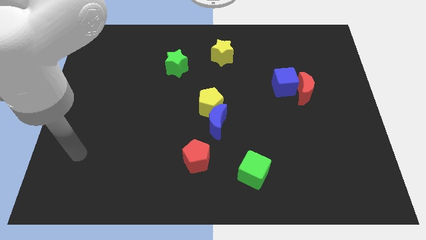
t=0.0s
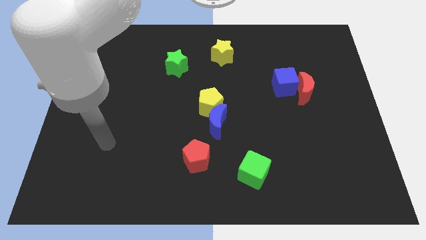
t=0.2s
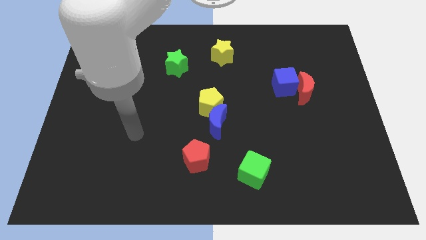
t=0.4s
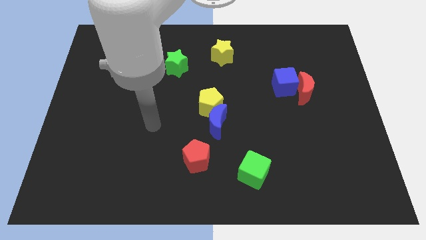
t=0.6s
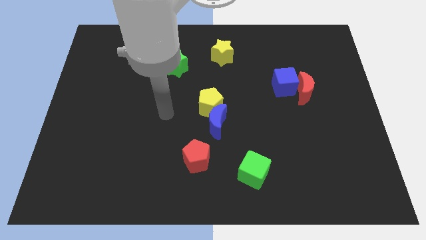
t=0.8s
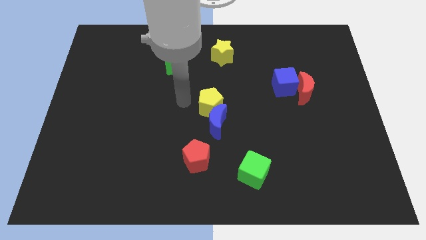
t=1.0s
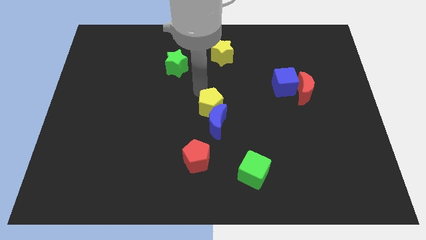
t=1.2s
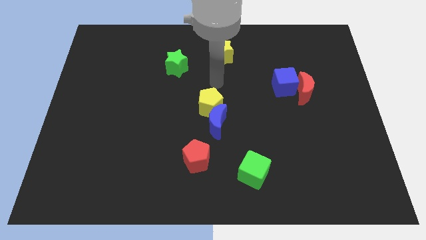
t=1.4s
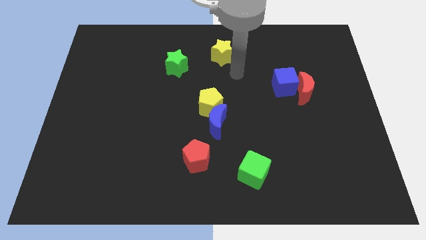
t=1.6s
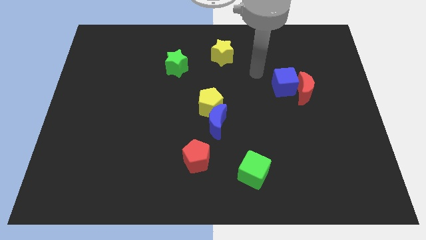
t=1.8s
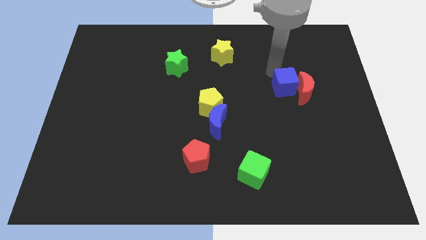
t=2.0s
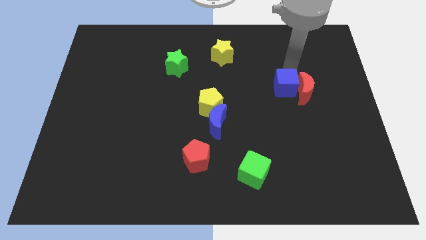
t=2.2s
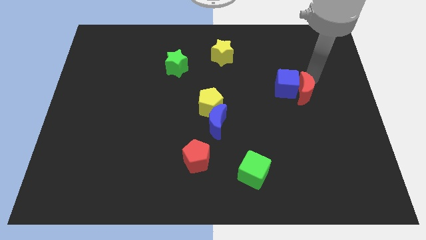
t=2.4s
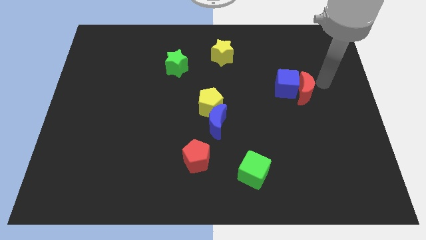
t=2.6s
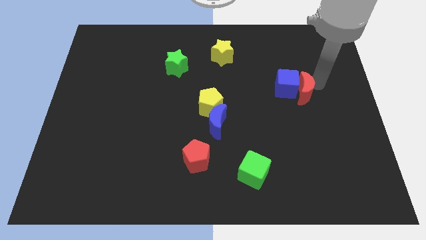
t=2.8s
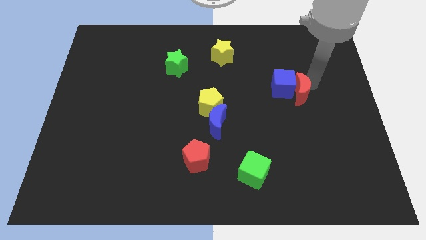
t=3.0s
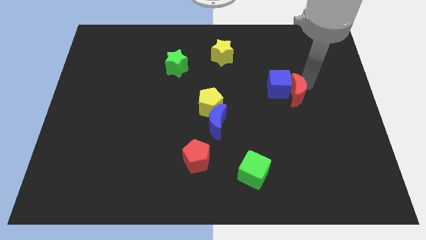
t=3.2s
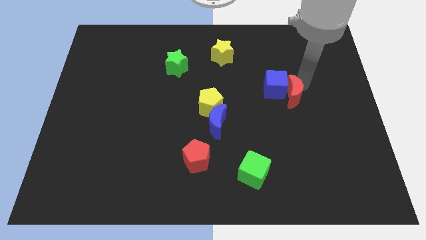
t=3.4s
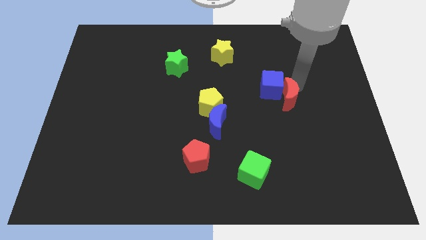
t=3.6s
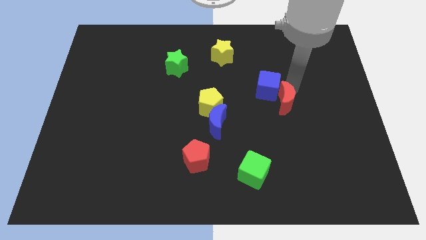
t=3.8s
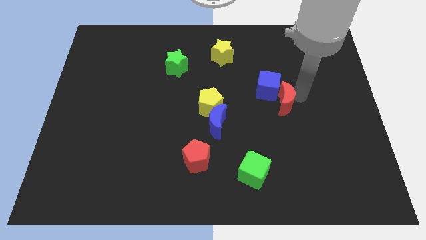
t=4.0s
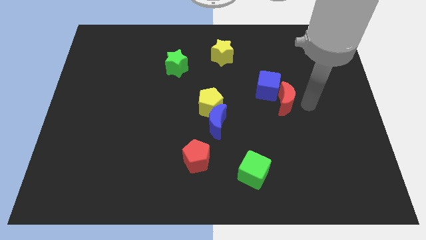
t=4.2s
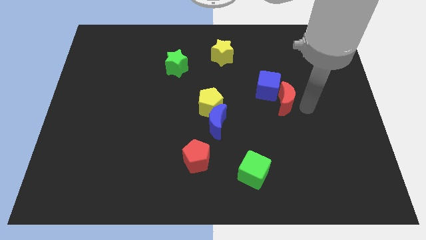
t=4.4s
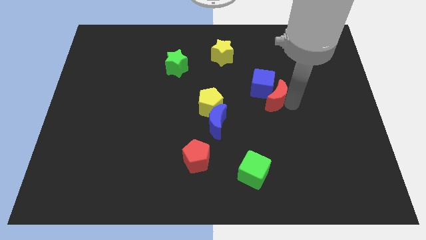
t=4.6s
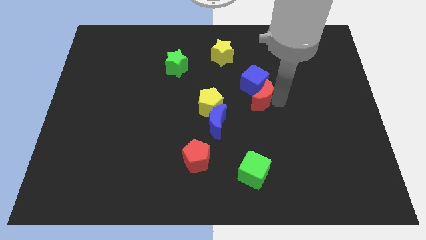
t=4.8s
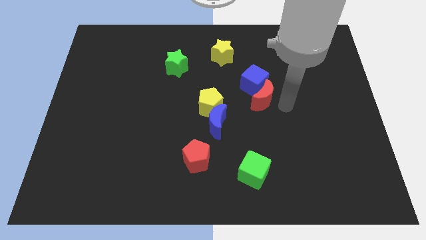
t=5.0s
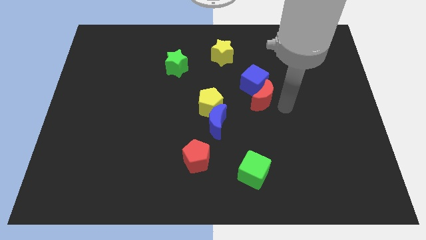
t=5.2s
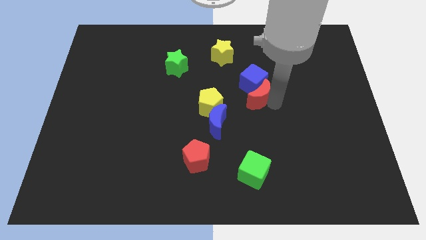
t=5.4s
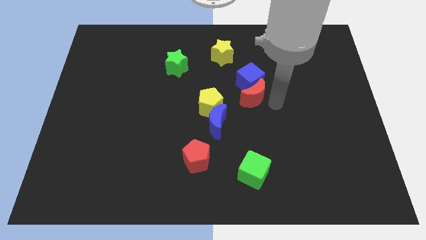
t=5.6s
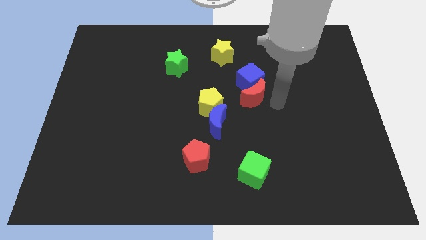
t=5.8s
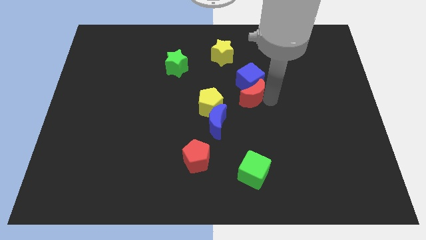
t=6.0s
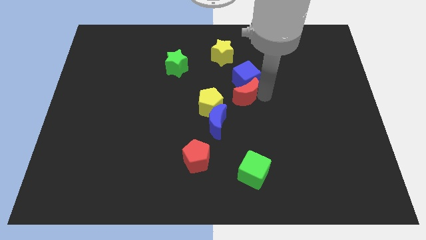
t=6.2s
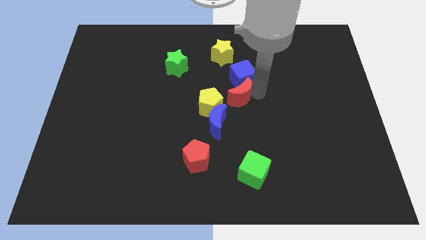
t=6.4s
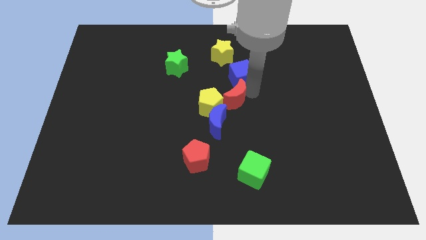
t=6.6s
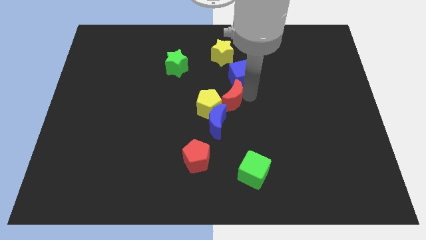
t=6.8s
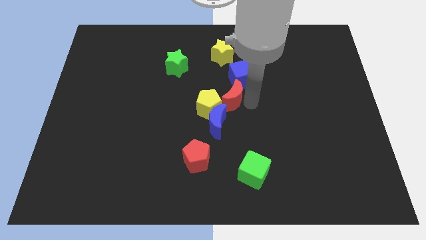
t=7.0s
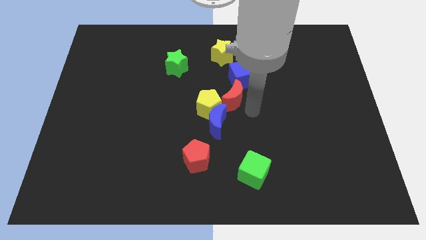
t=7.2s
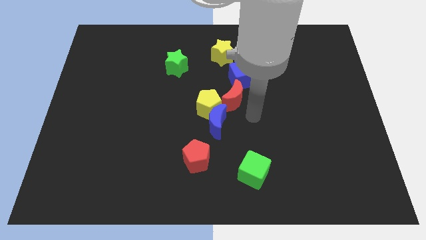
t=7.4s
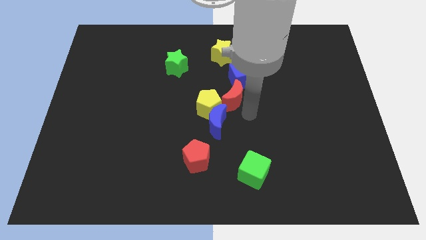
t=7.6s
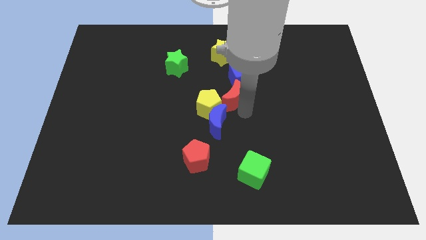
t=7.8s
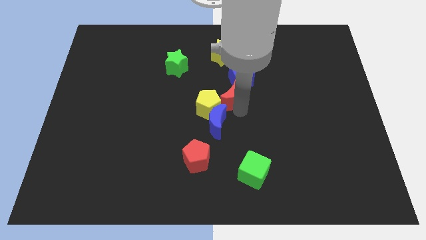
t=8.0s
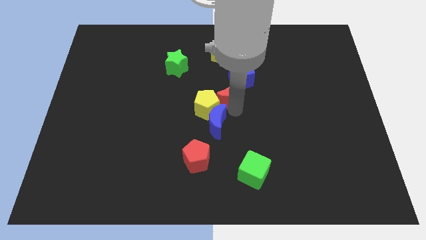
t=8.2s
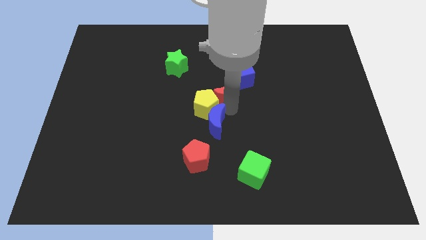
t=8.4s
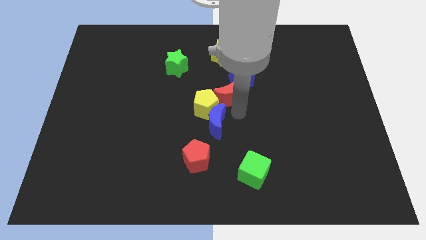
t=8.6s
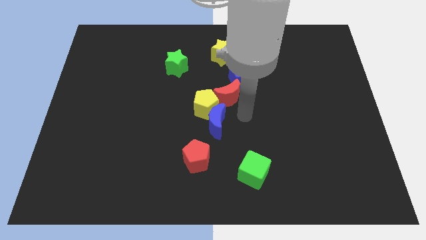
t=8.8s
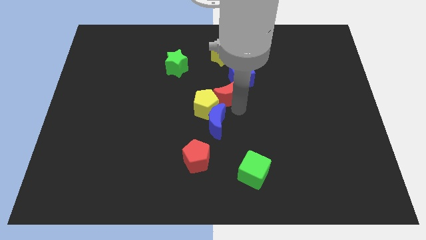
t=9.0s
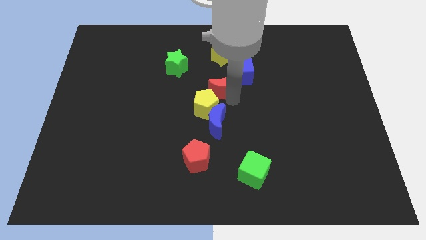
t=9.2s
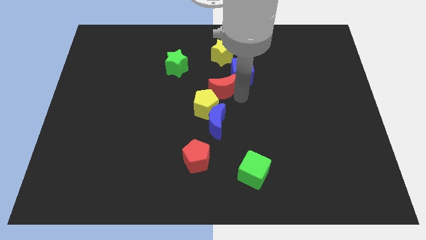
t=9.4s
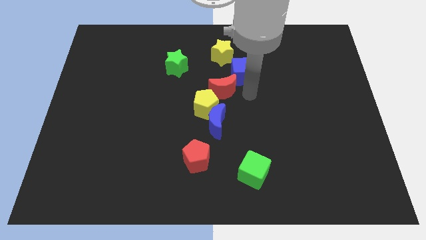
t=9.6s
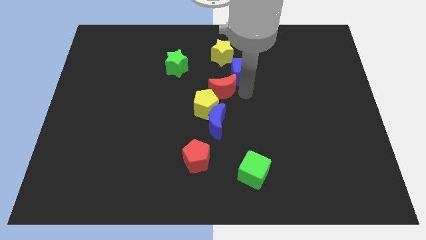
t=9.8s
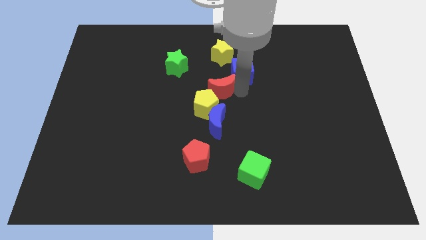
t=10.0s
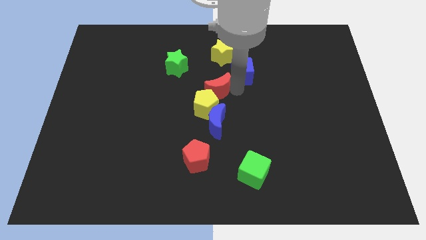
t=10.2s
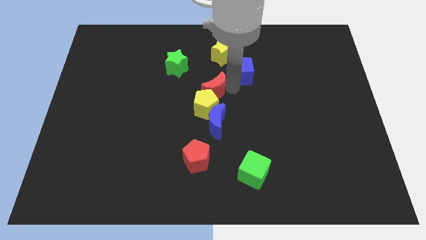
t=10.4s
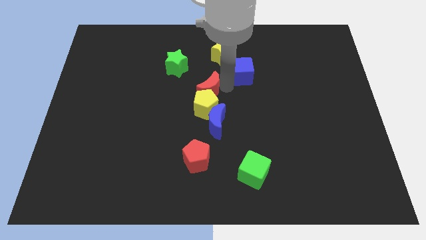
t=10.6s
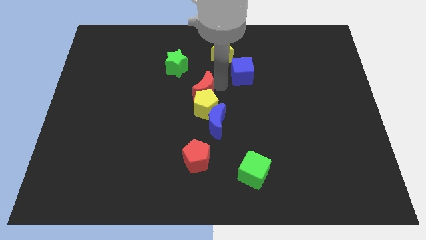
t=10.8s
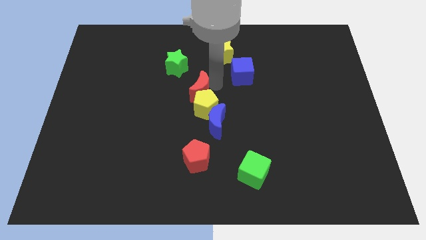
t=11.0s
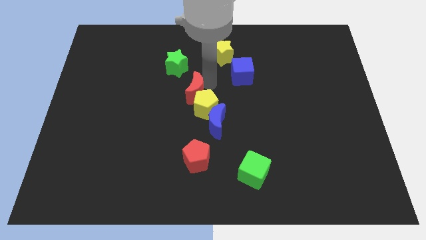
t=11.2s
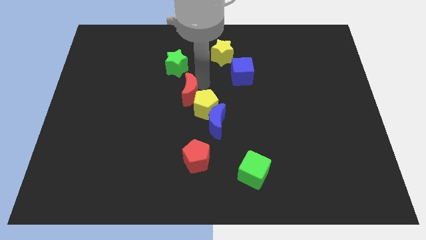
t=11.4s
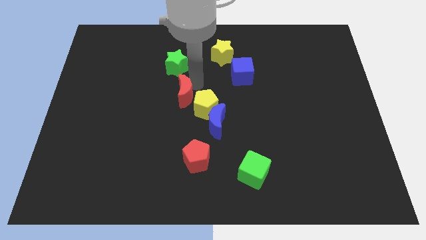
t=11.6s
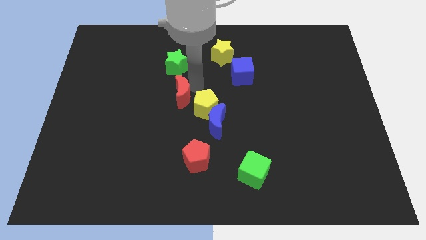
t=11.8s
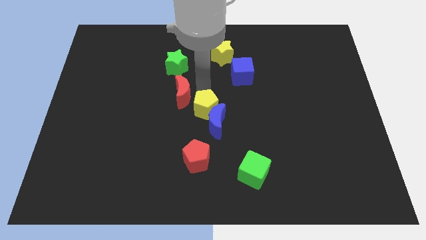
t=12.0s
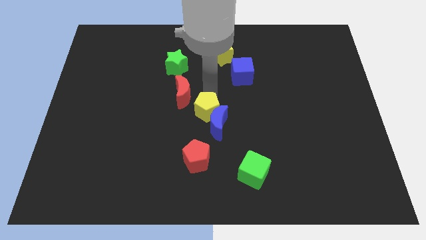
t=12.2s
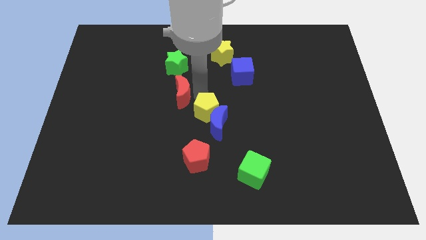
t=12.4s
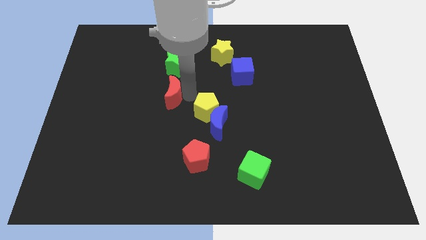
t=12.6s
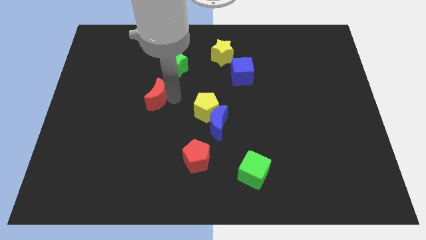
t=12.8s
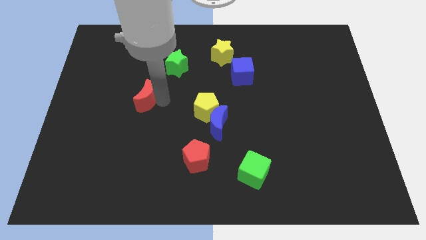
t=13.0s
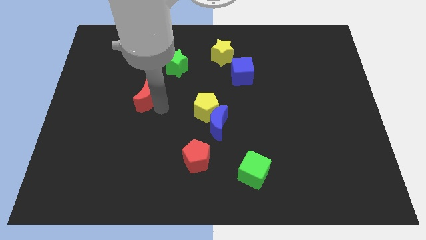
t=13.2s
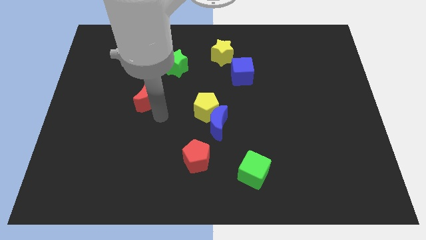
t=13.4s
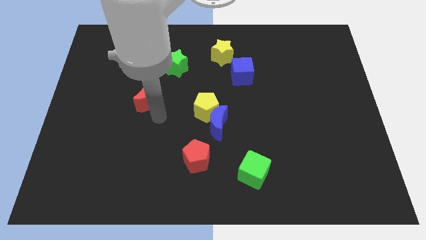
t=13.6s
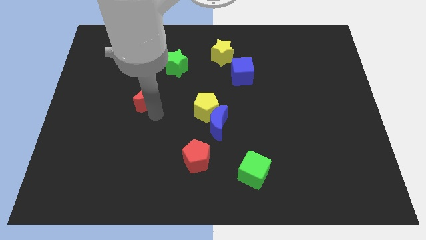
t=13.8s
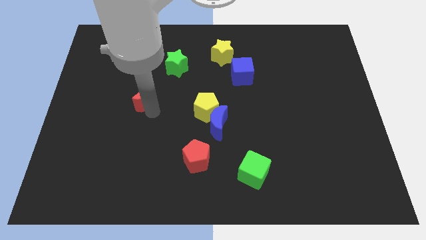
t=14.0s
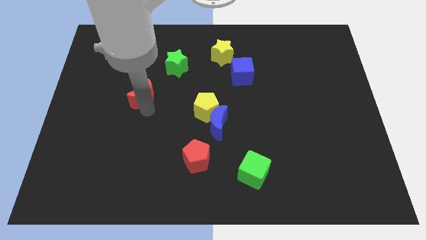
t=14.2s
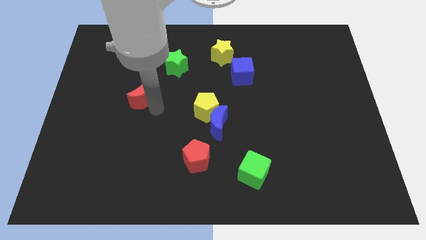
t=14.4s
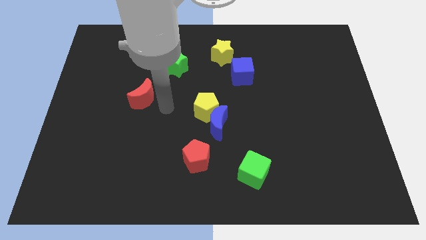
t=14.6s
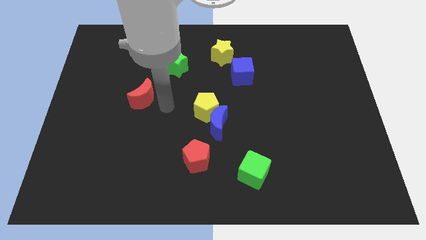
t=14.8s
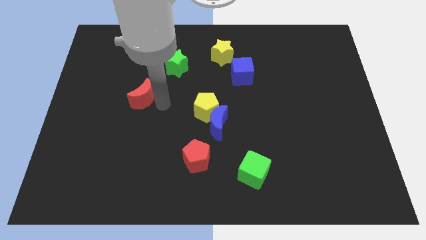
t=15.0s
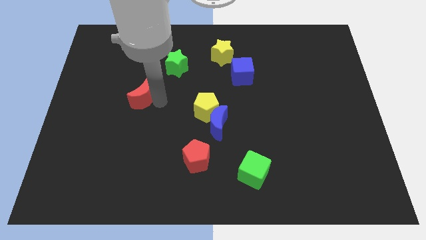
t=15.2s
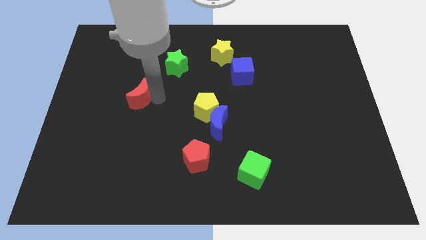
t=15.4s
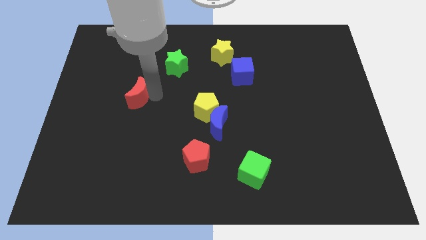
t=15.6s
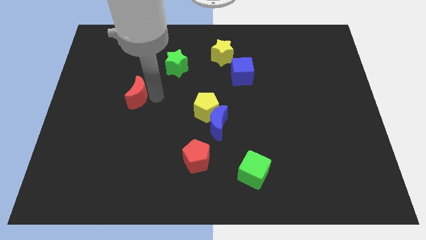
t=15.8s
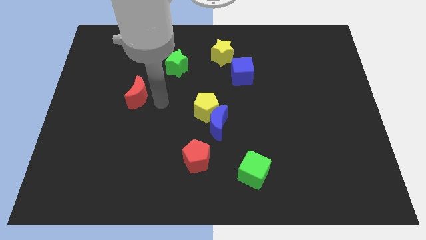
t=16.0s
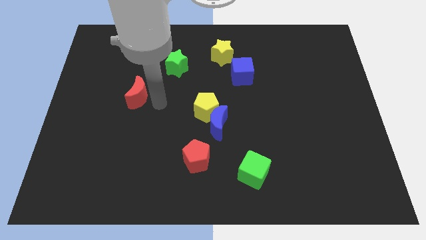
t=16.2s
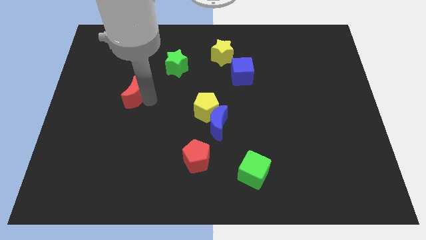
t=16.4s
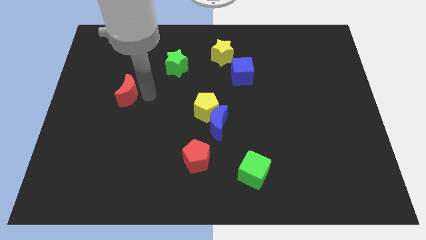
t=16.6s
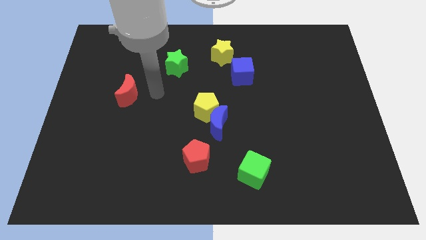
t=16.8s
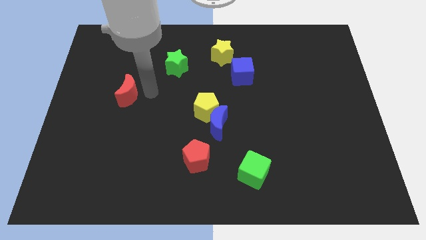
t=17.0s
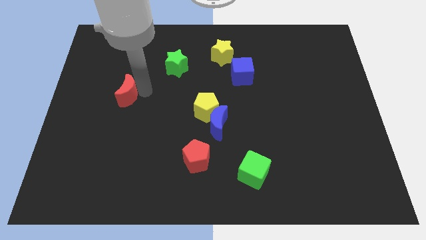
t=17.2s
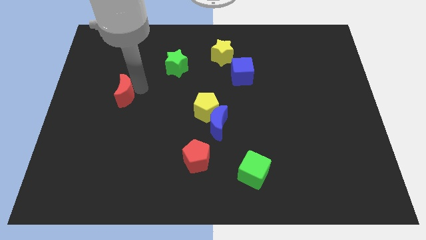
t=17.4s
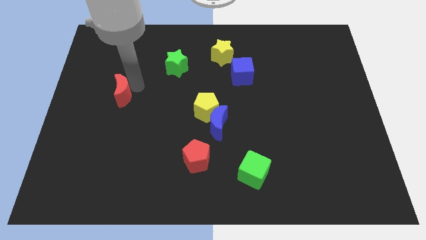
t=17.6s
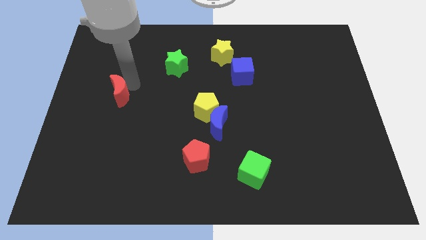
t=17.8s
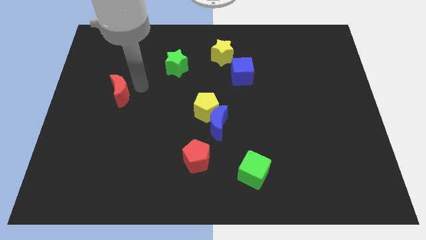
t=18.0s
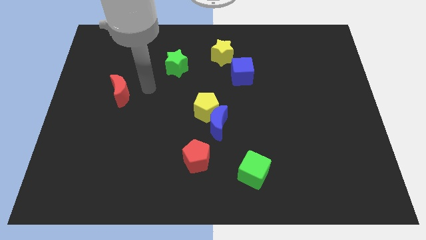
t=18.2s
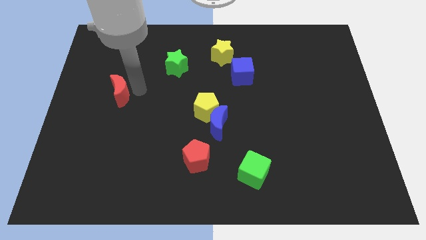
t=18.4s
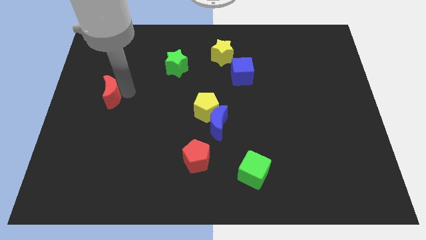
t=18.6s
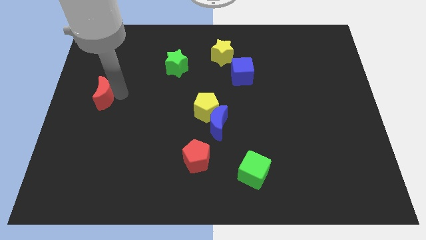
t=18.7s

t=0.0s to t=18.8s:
move the red moon to the left side of the board
